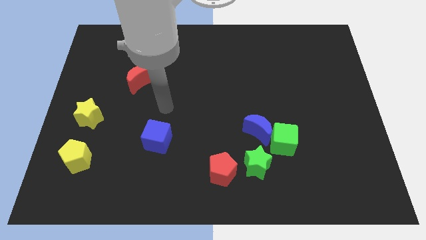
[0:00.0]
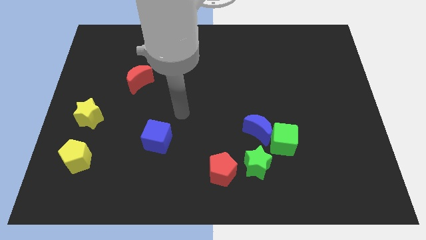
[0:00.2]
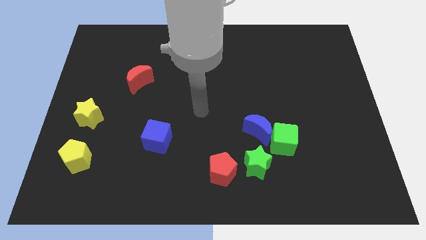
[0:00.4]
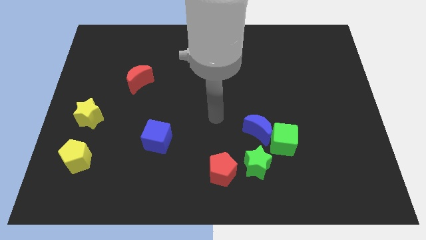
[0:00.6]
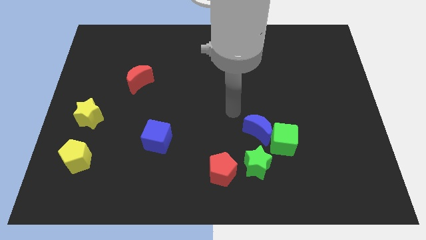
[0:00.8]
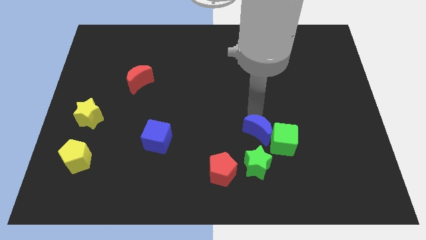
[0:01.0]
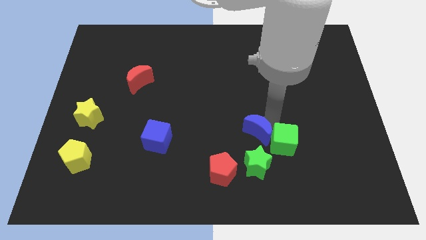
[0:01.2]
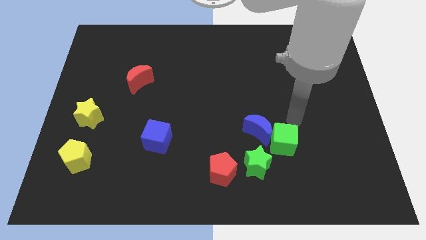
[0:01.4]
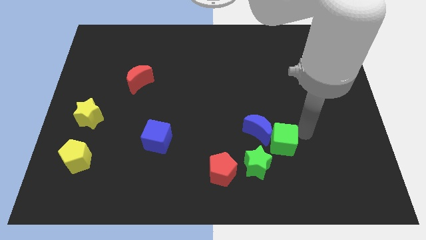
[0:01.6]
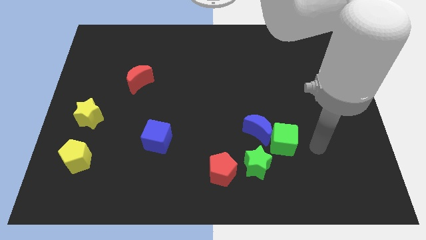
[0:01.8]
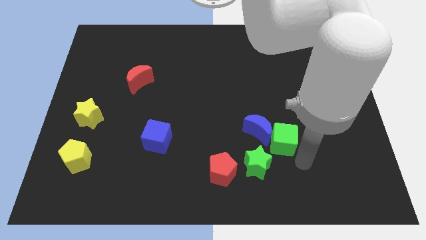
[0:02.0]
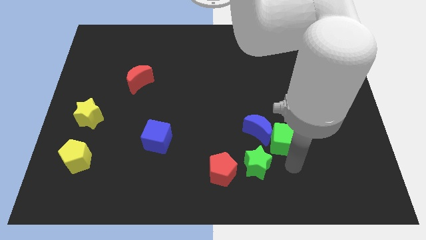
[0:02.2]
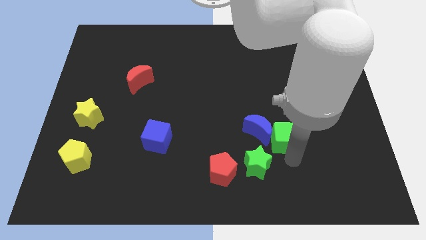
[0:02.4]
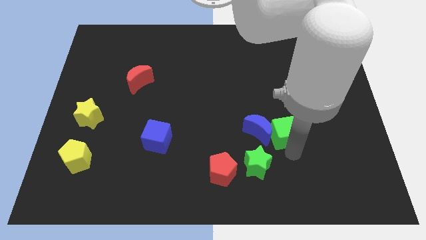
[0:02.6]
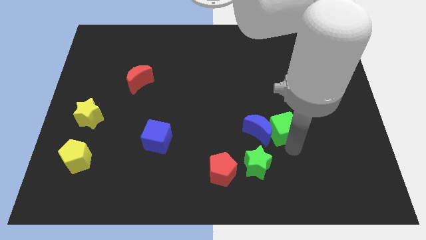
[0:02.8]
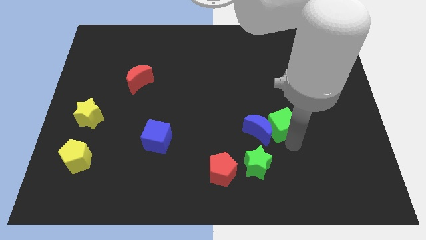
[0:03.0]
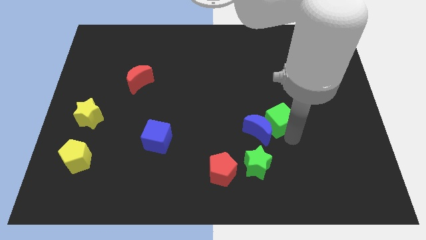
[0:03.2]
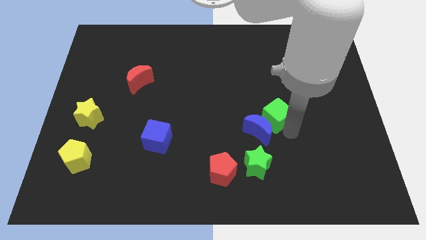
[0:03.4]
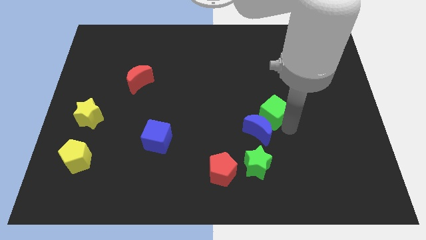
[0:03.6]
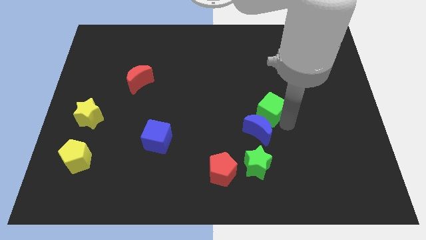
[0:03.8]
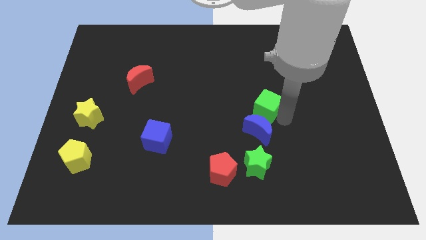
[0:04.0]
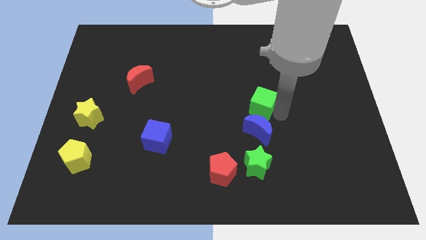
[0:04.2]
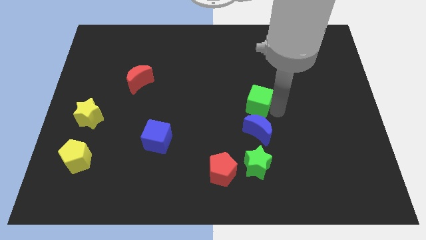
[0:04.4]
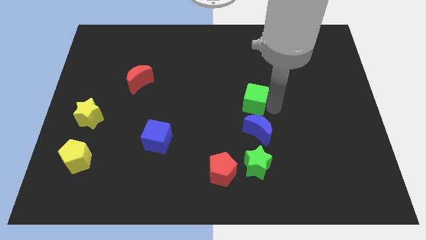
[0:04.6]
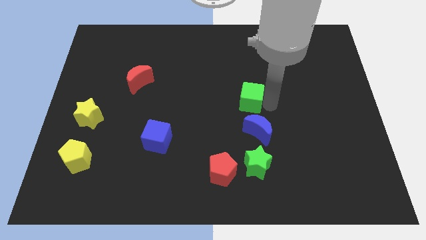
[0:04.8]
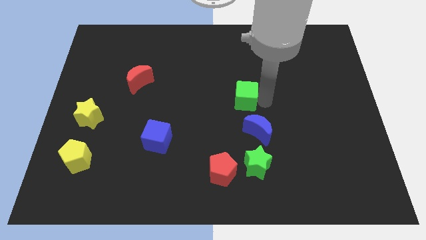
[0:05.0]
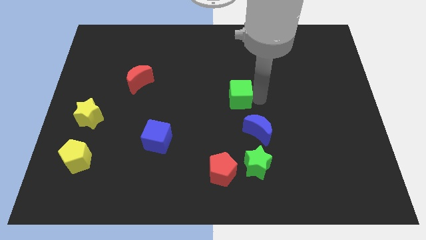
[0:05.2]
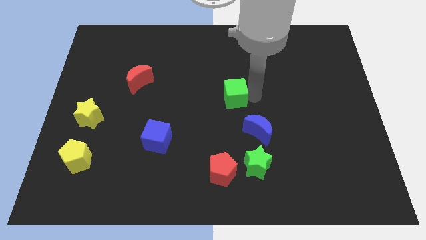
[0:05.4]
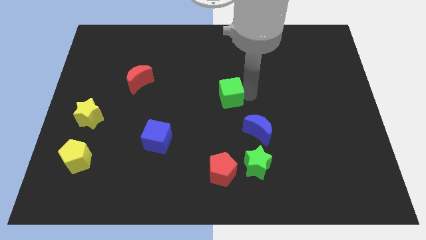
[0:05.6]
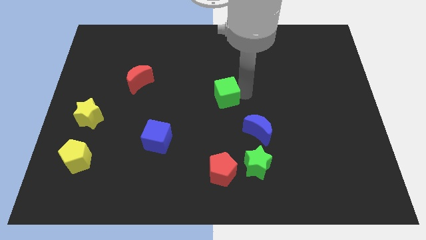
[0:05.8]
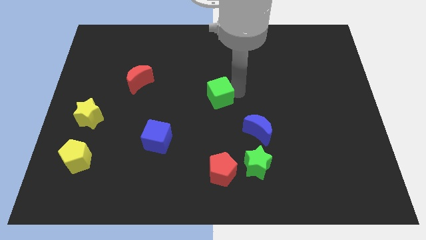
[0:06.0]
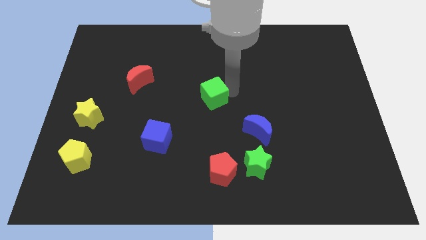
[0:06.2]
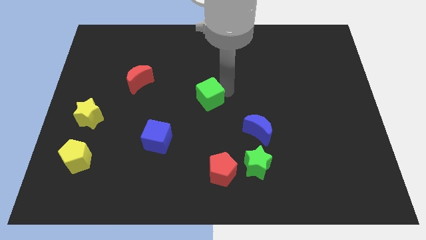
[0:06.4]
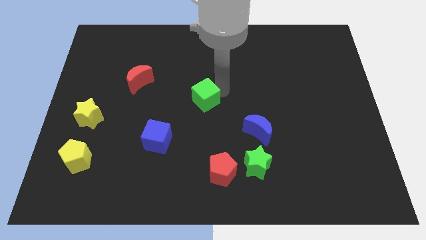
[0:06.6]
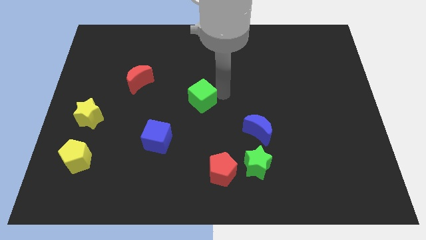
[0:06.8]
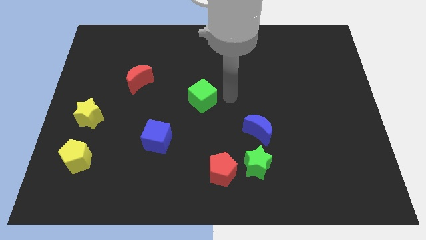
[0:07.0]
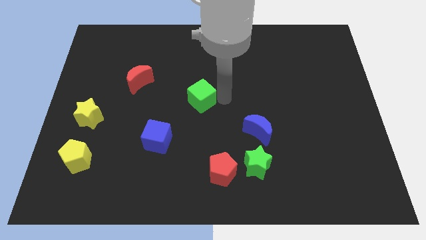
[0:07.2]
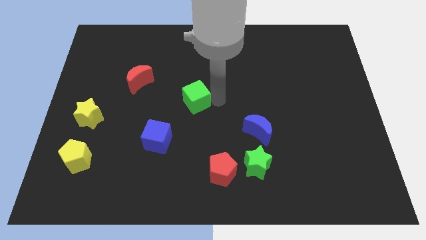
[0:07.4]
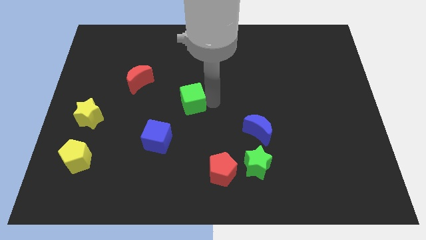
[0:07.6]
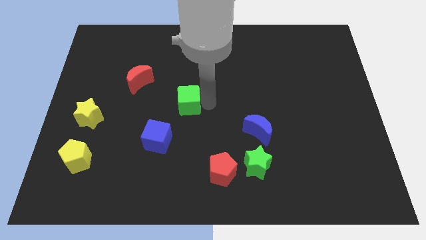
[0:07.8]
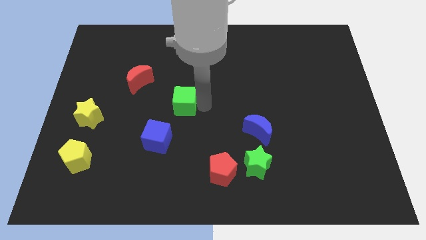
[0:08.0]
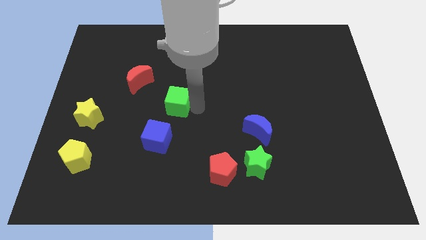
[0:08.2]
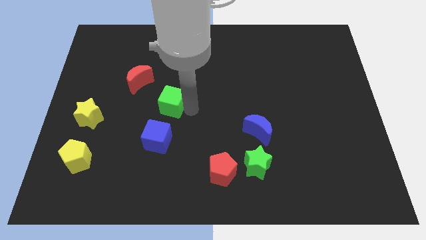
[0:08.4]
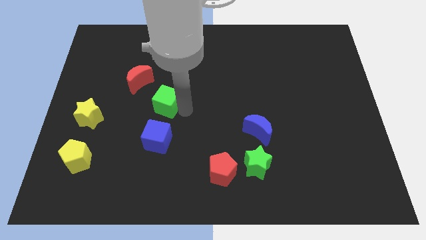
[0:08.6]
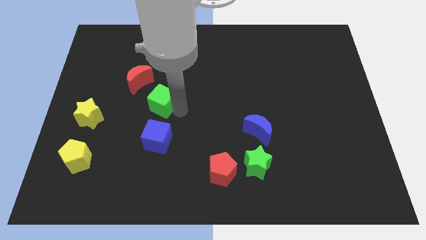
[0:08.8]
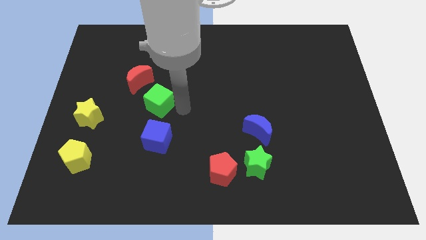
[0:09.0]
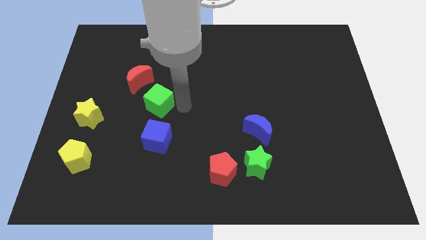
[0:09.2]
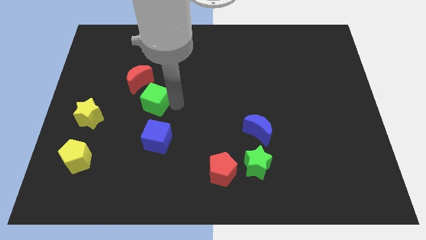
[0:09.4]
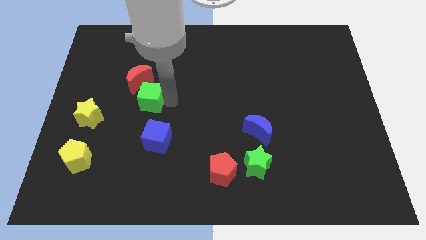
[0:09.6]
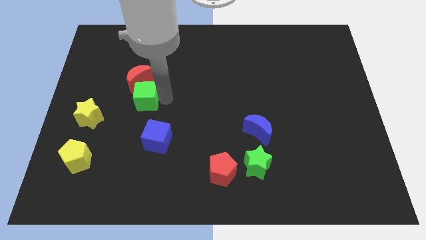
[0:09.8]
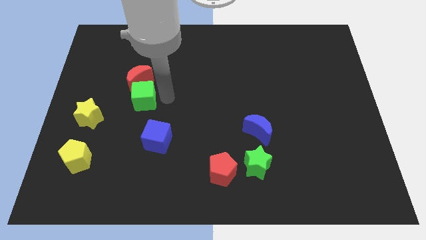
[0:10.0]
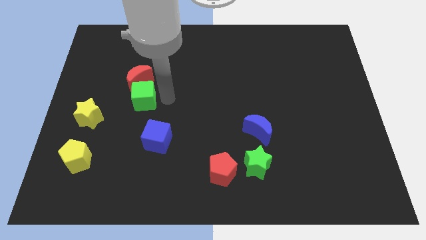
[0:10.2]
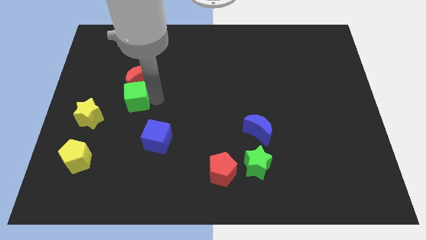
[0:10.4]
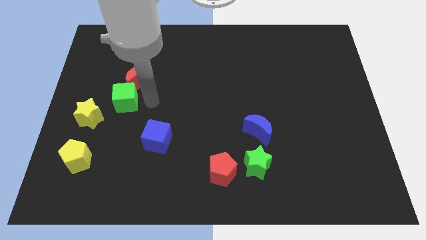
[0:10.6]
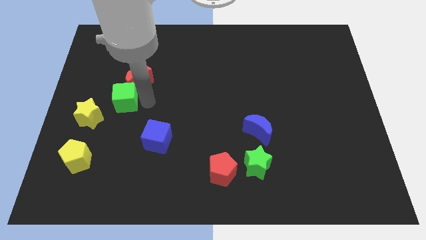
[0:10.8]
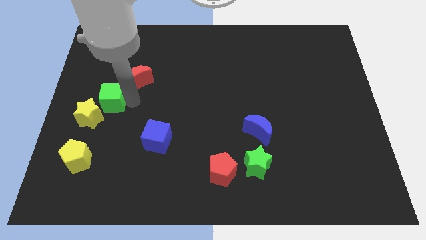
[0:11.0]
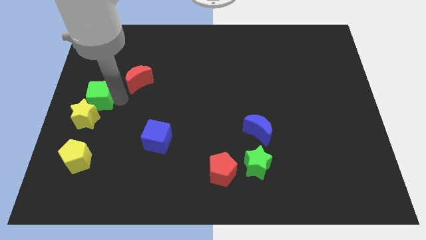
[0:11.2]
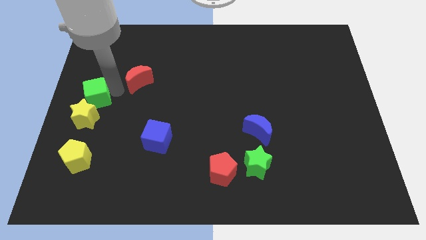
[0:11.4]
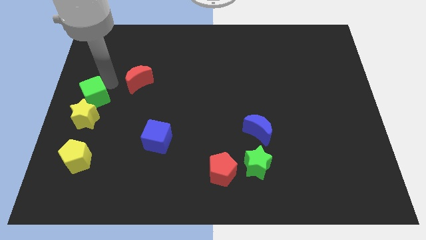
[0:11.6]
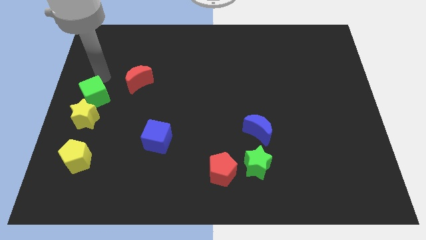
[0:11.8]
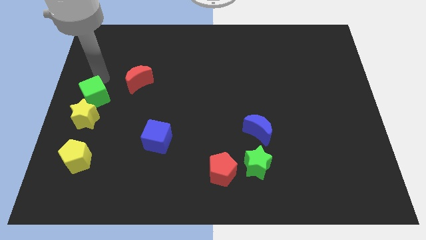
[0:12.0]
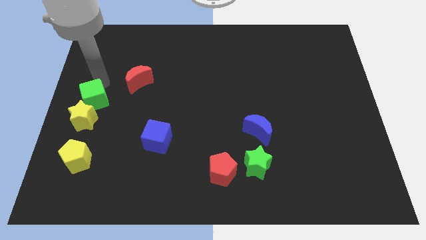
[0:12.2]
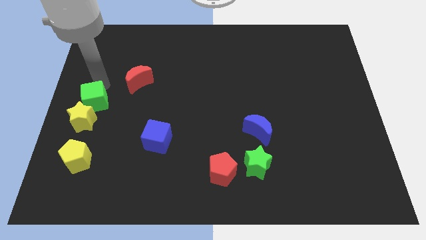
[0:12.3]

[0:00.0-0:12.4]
move the green cube to the top of the yellow pentagon

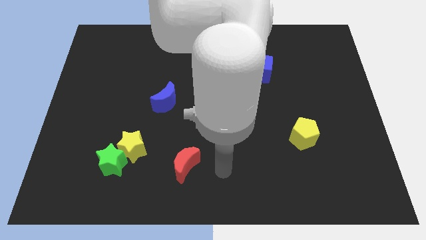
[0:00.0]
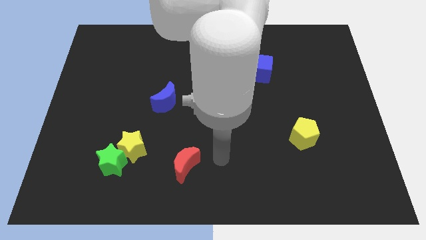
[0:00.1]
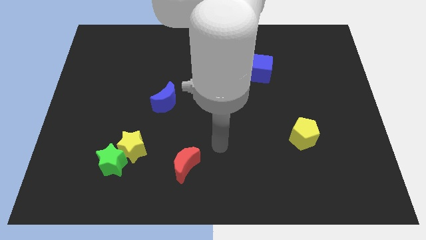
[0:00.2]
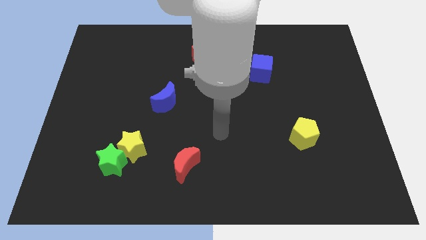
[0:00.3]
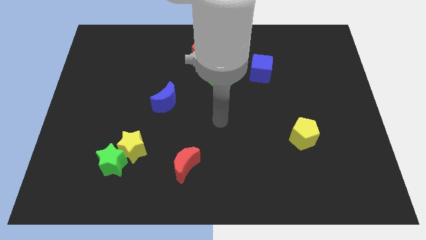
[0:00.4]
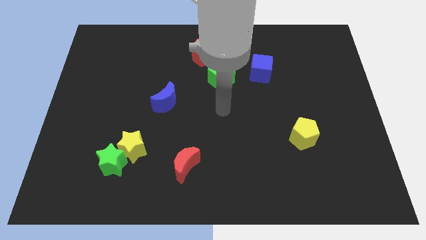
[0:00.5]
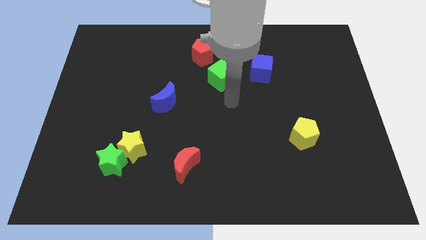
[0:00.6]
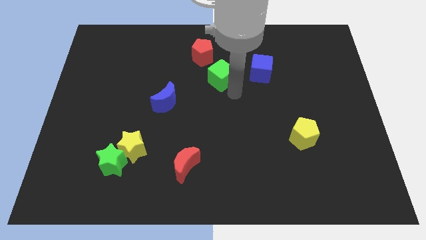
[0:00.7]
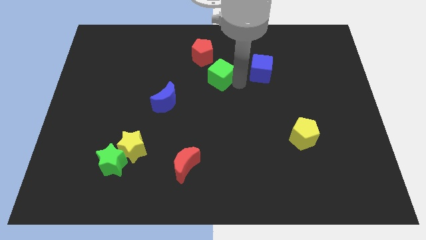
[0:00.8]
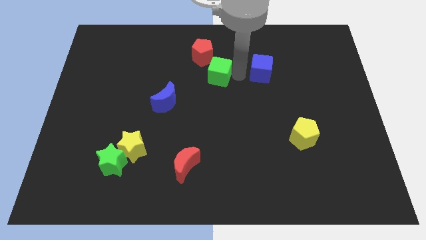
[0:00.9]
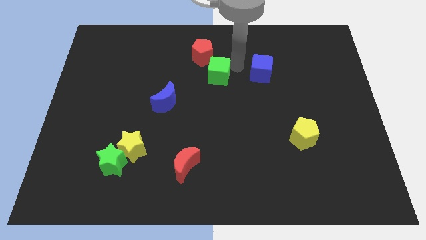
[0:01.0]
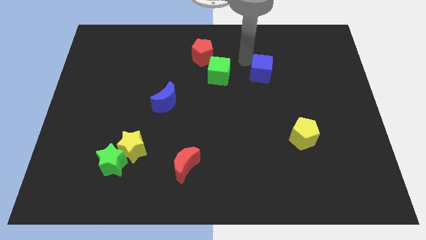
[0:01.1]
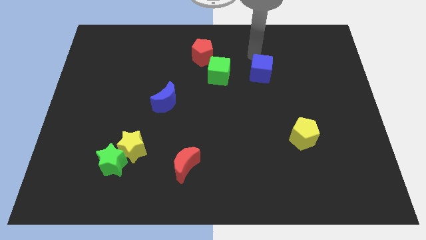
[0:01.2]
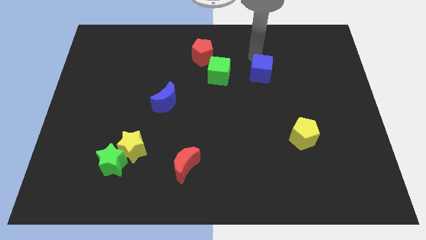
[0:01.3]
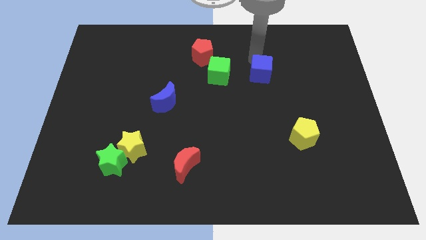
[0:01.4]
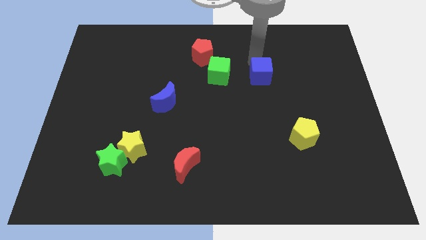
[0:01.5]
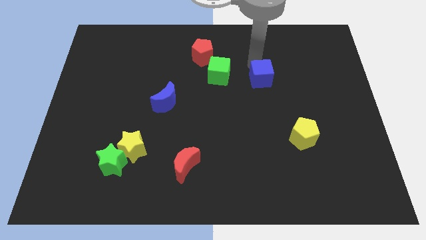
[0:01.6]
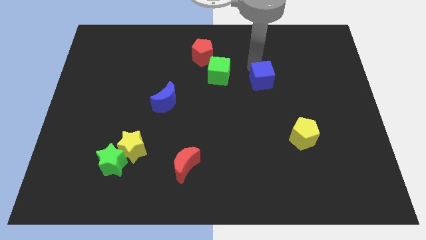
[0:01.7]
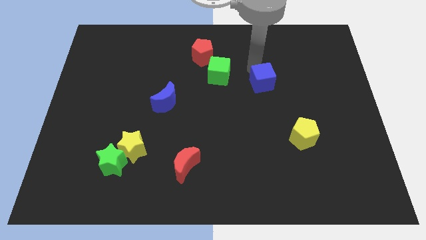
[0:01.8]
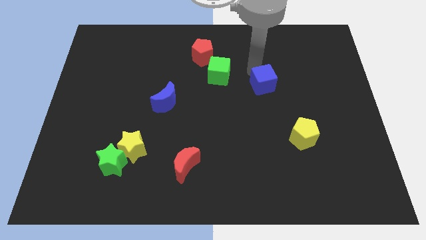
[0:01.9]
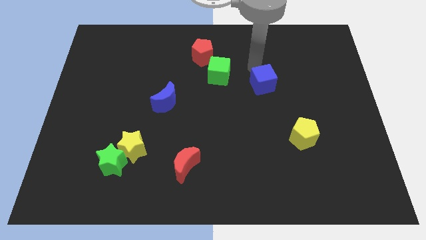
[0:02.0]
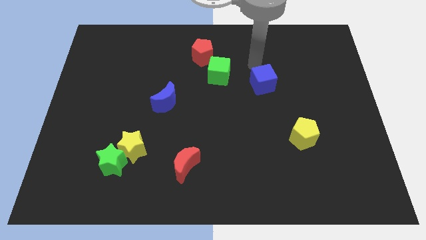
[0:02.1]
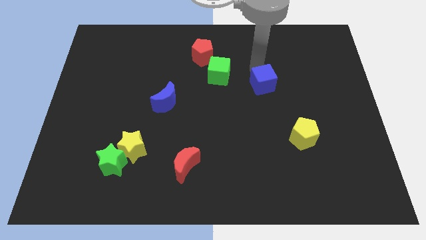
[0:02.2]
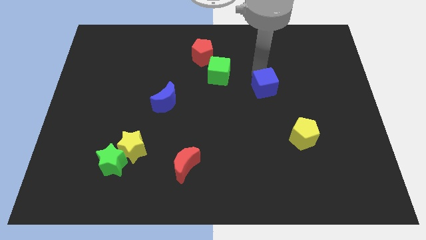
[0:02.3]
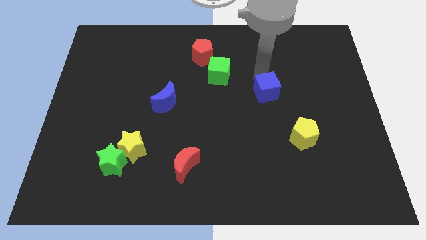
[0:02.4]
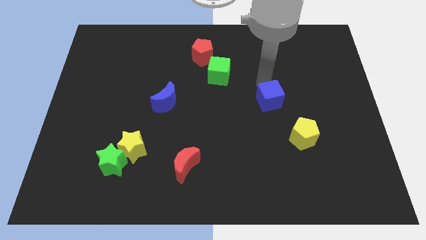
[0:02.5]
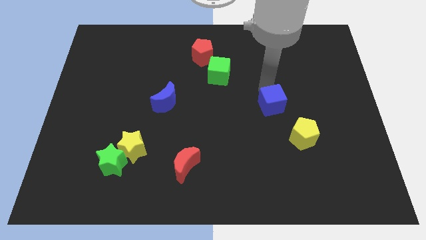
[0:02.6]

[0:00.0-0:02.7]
push the blue cube diagonally up and to the left of the yellow pentagon
